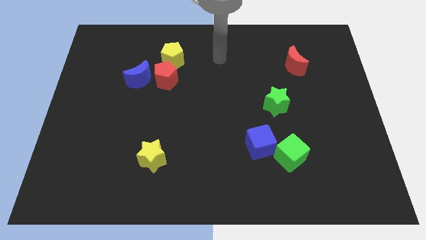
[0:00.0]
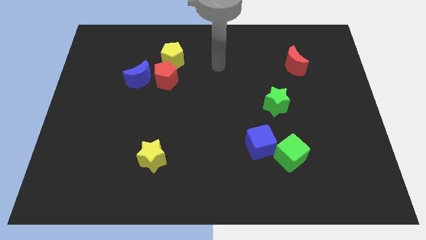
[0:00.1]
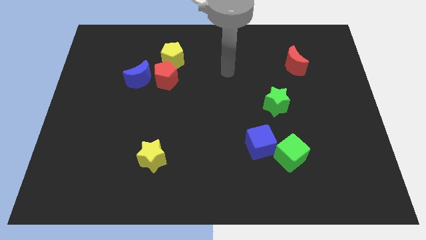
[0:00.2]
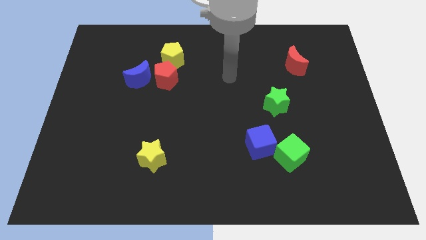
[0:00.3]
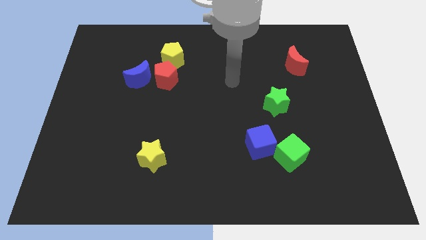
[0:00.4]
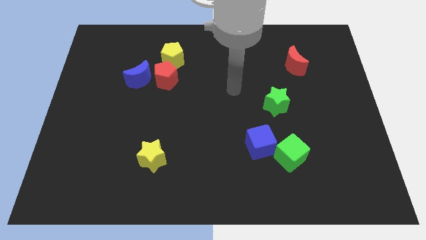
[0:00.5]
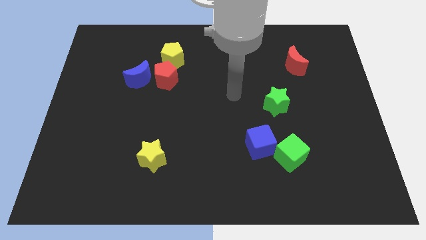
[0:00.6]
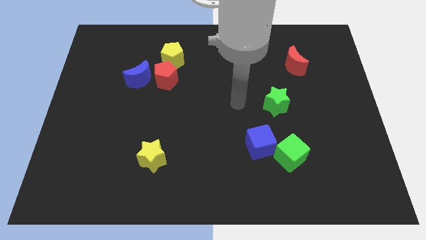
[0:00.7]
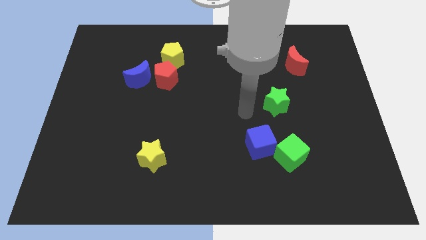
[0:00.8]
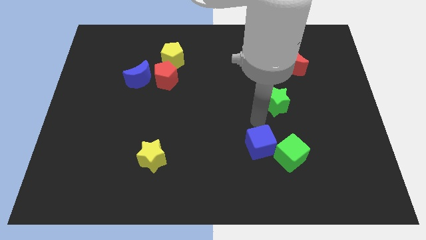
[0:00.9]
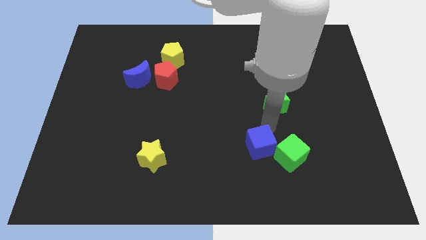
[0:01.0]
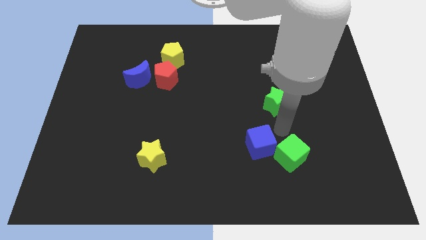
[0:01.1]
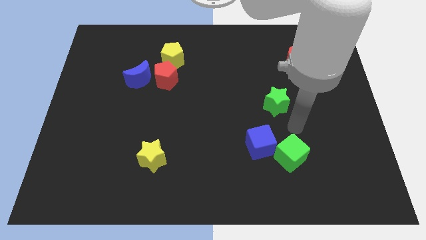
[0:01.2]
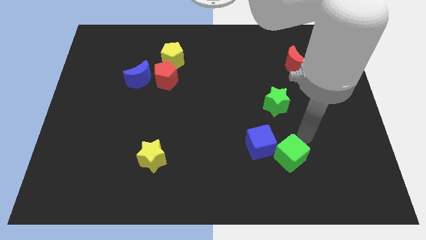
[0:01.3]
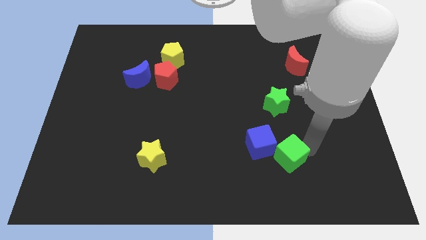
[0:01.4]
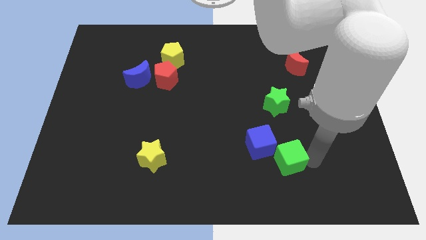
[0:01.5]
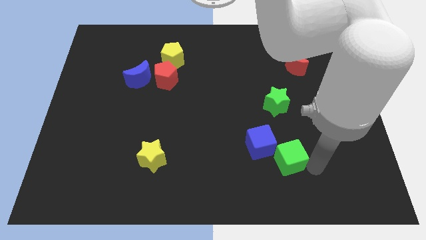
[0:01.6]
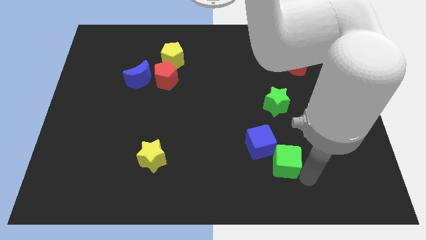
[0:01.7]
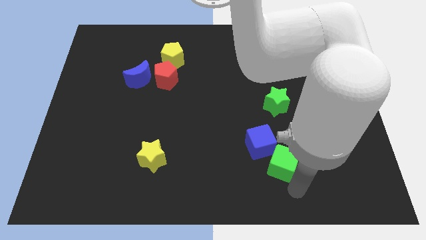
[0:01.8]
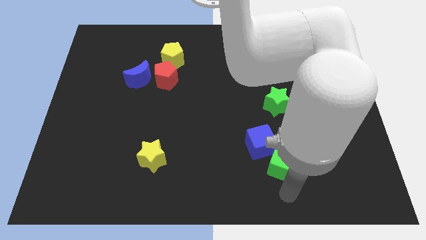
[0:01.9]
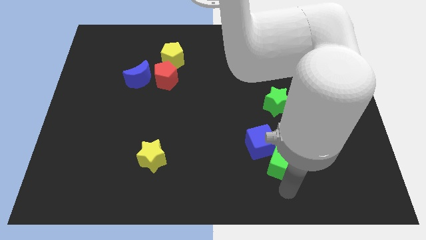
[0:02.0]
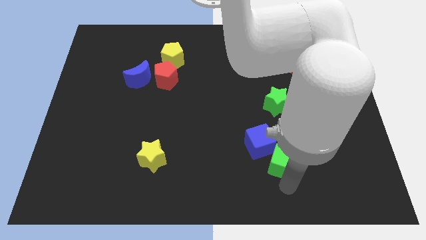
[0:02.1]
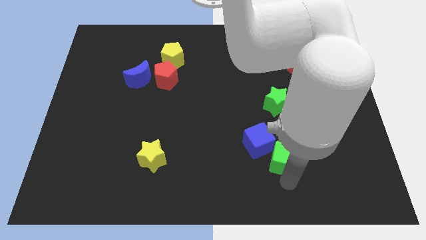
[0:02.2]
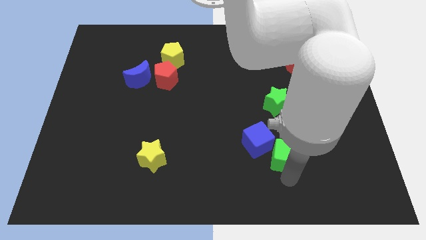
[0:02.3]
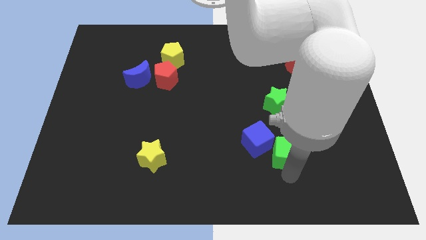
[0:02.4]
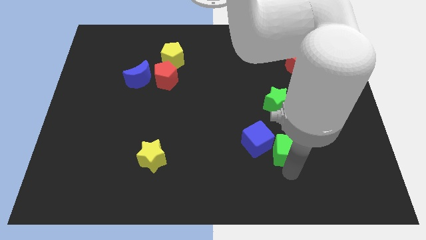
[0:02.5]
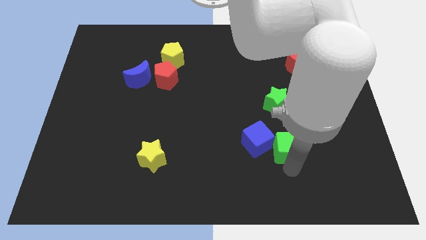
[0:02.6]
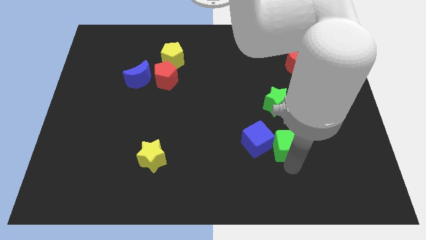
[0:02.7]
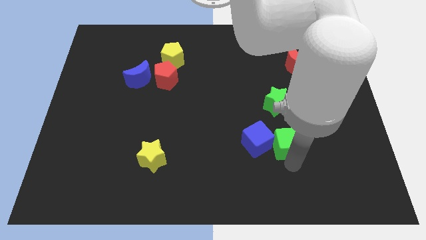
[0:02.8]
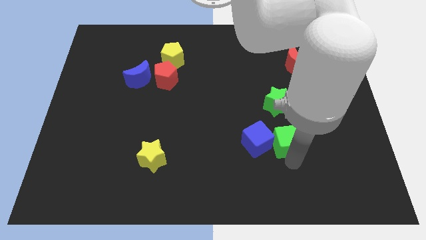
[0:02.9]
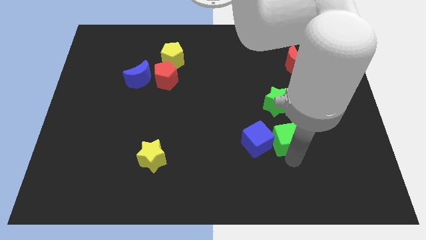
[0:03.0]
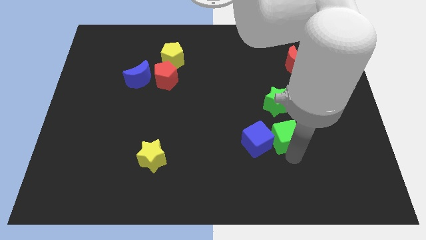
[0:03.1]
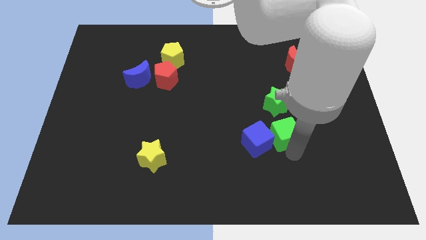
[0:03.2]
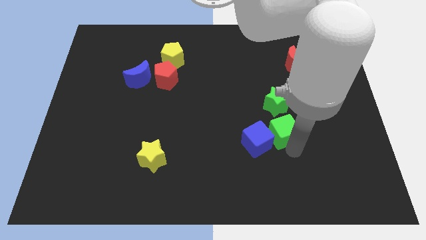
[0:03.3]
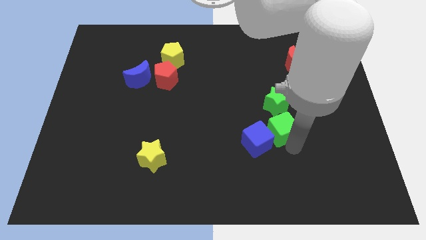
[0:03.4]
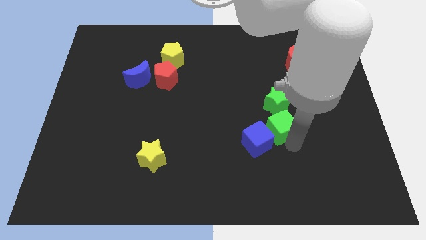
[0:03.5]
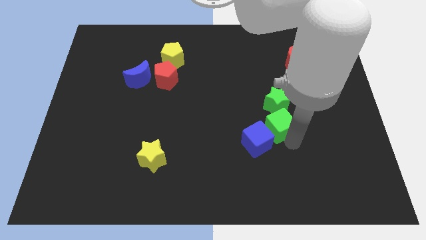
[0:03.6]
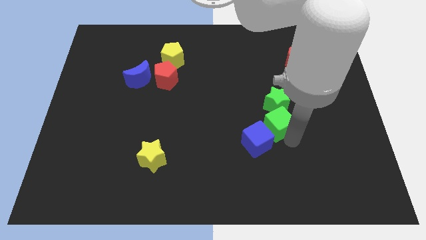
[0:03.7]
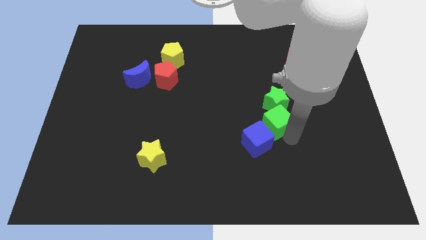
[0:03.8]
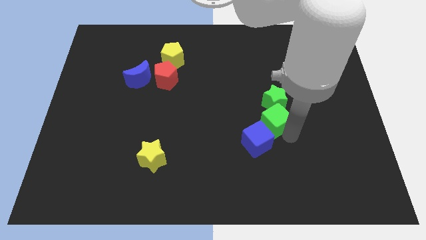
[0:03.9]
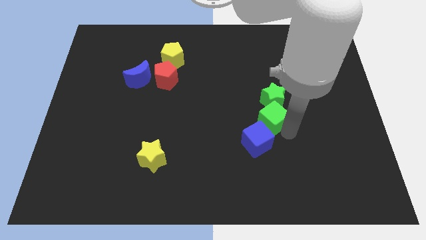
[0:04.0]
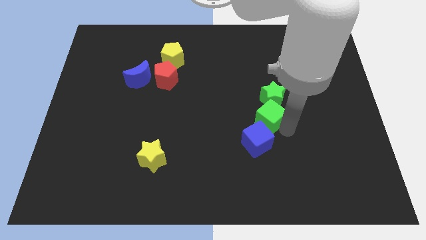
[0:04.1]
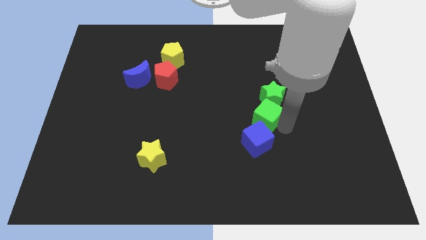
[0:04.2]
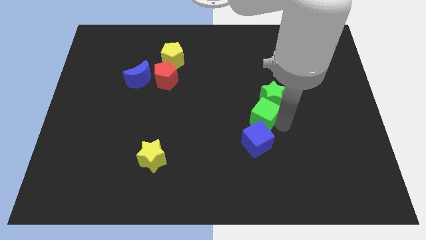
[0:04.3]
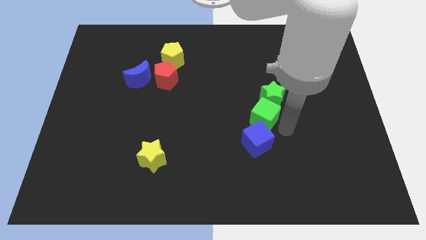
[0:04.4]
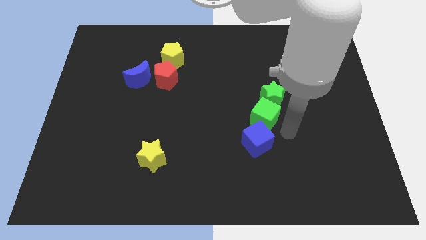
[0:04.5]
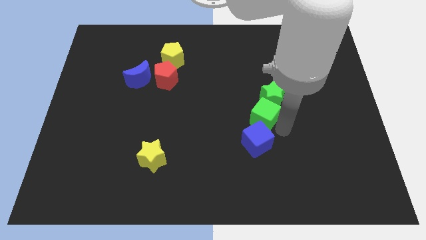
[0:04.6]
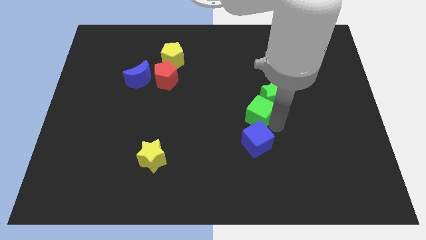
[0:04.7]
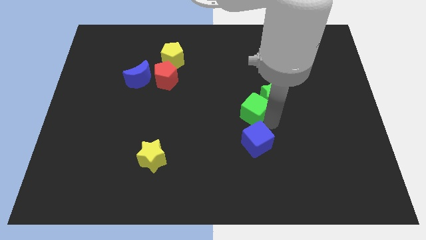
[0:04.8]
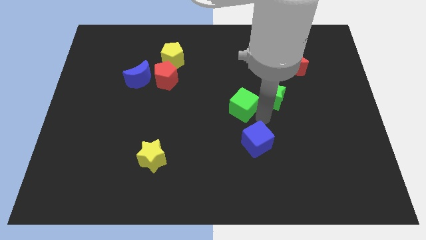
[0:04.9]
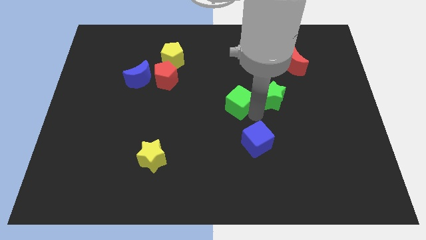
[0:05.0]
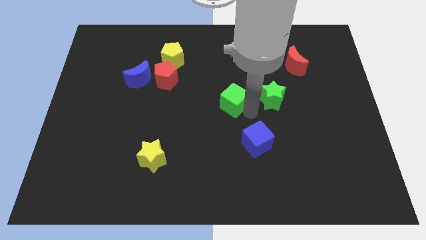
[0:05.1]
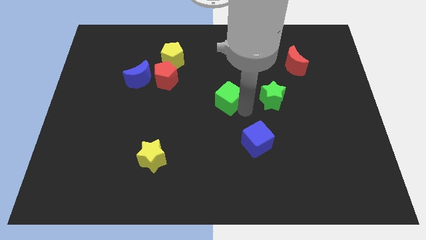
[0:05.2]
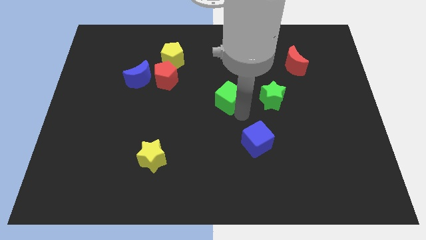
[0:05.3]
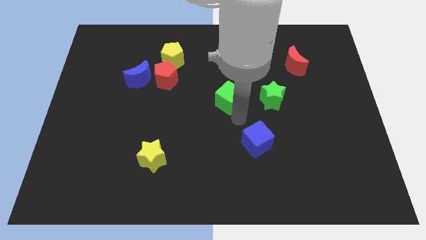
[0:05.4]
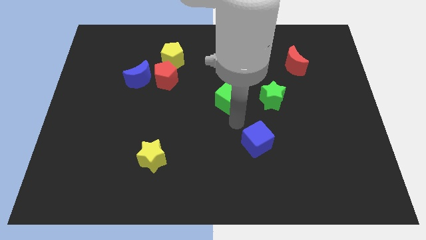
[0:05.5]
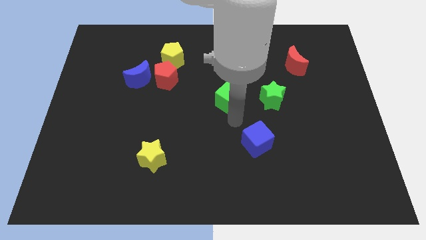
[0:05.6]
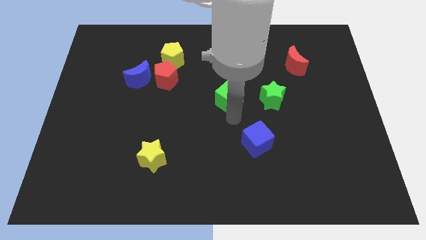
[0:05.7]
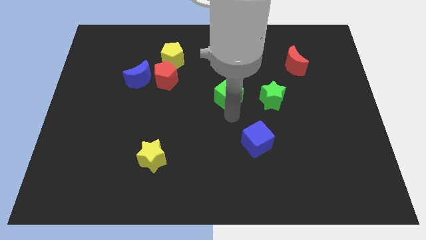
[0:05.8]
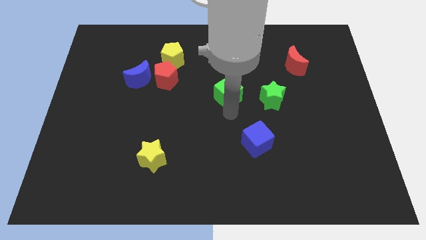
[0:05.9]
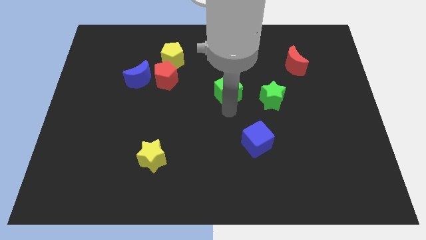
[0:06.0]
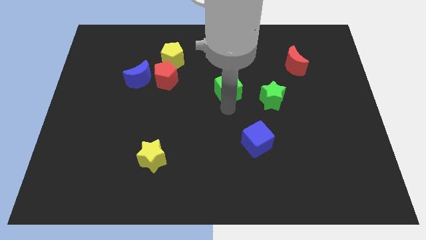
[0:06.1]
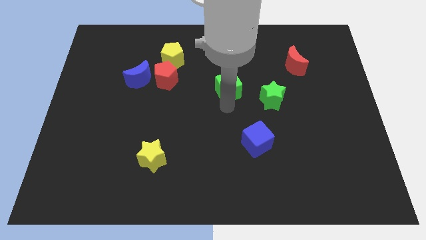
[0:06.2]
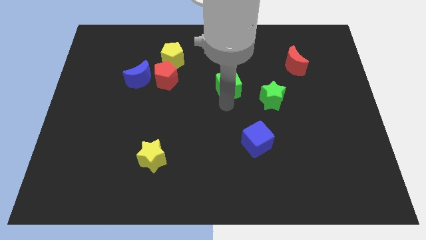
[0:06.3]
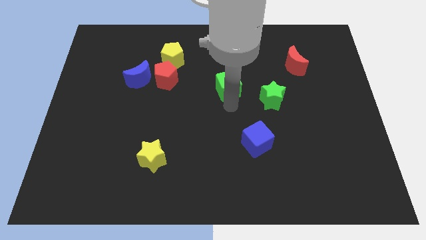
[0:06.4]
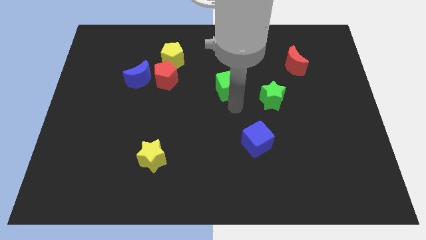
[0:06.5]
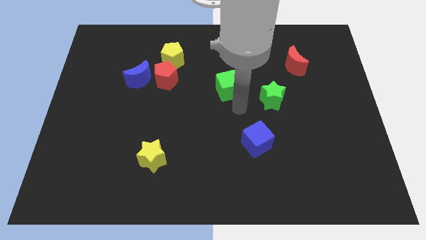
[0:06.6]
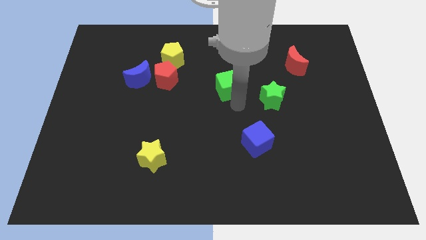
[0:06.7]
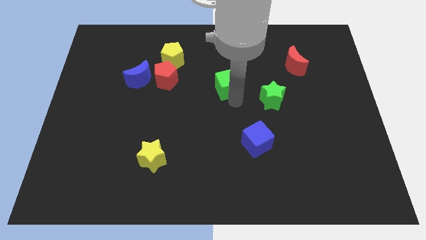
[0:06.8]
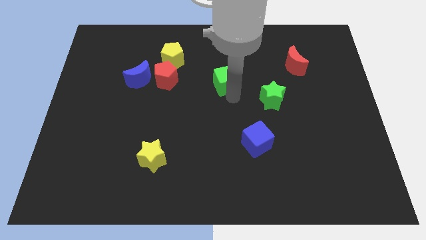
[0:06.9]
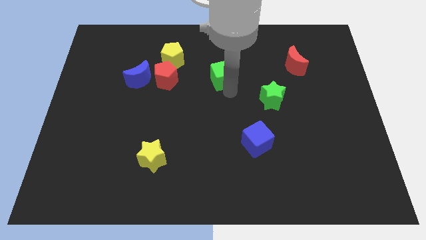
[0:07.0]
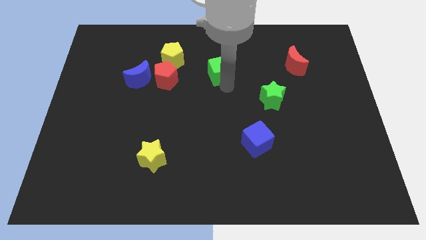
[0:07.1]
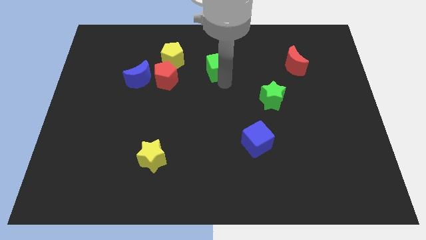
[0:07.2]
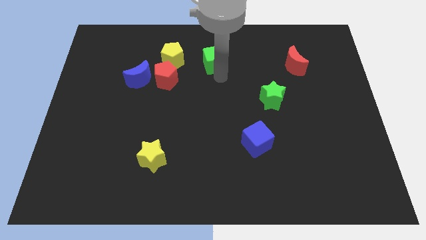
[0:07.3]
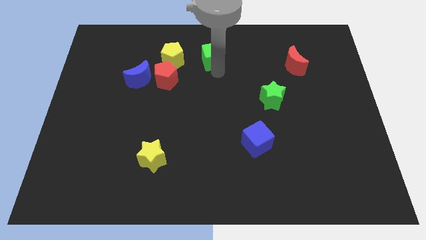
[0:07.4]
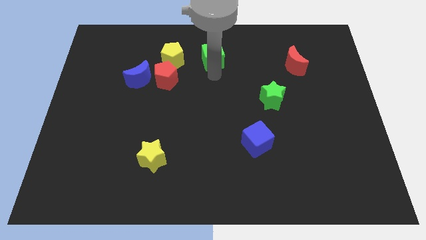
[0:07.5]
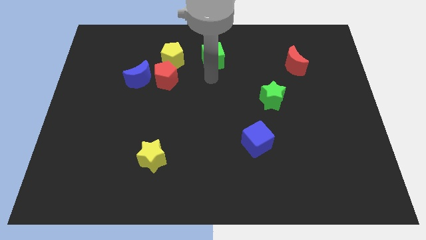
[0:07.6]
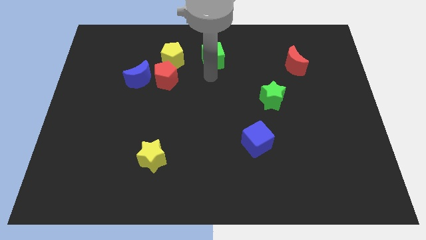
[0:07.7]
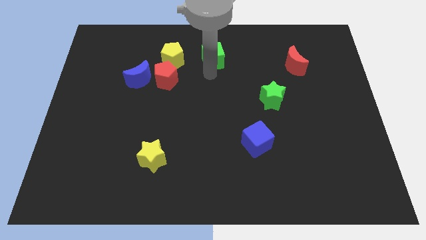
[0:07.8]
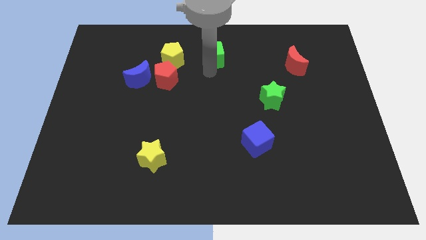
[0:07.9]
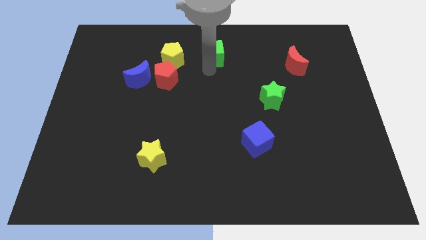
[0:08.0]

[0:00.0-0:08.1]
put the green cube to the top
